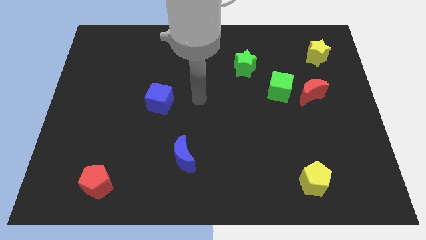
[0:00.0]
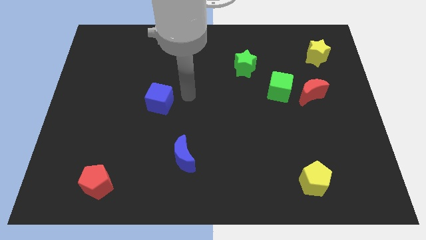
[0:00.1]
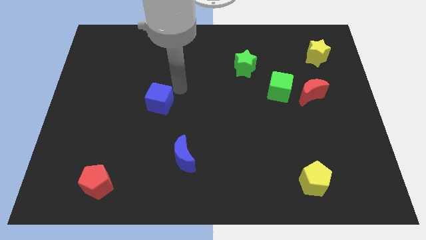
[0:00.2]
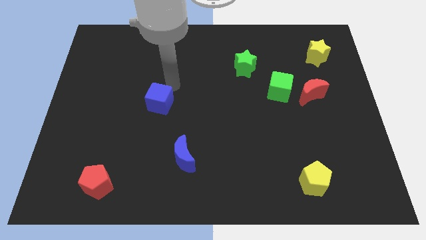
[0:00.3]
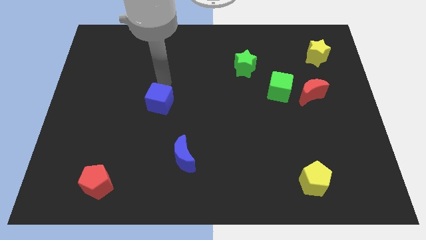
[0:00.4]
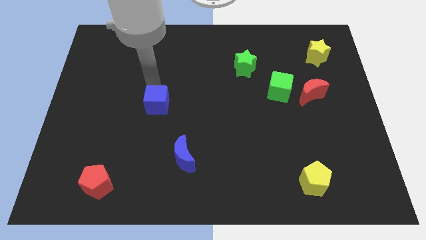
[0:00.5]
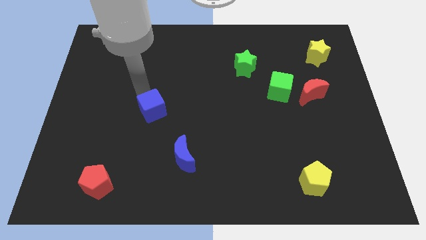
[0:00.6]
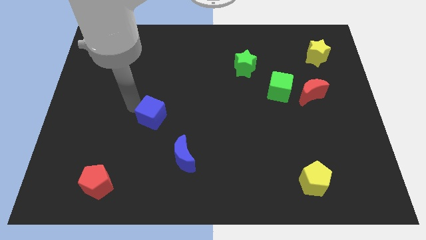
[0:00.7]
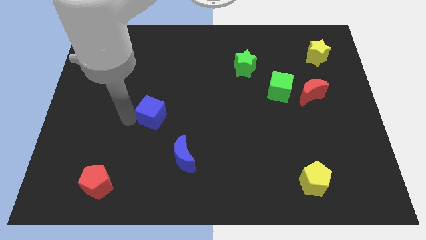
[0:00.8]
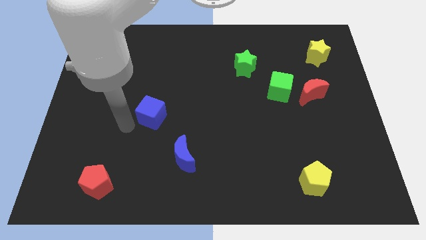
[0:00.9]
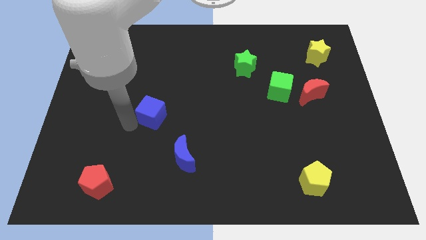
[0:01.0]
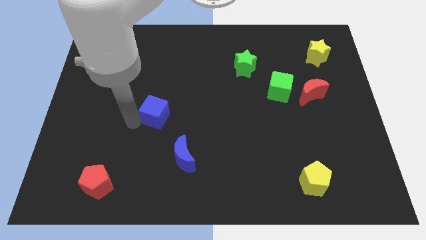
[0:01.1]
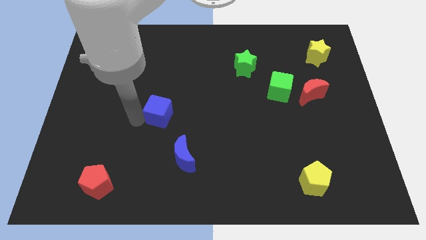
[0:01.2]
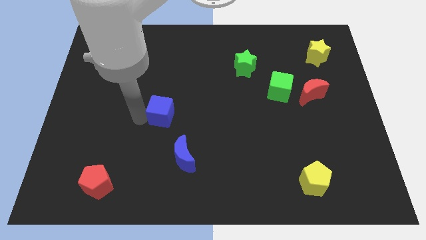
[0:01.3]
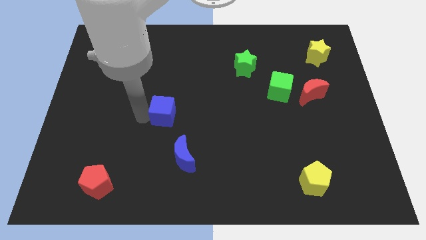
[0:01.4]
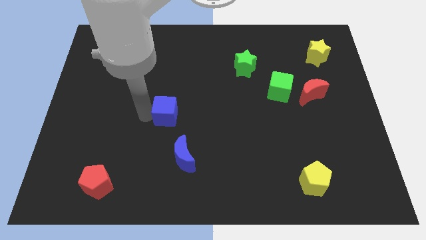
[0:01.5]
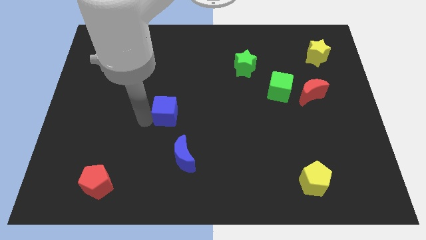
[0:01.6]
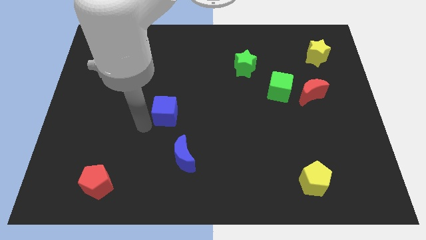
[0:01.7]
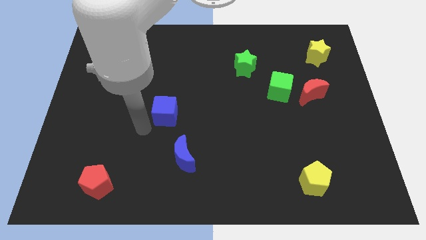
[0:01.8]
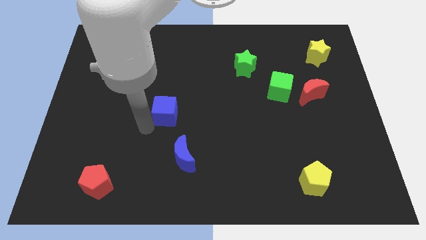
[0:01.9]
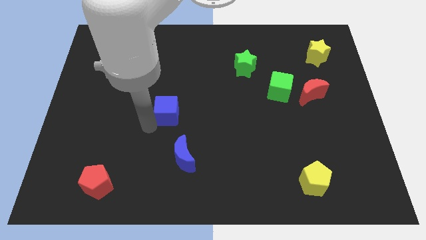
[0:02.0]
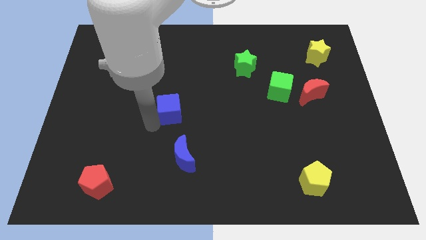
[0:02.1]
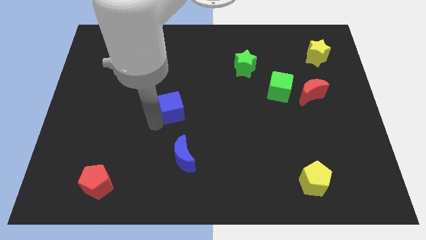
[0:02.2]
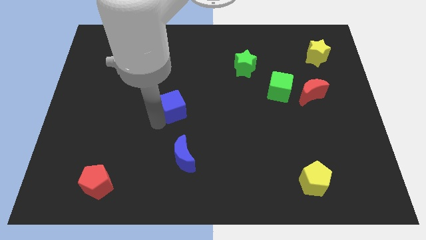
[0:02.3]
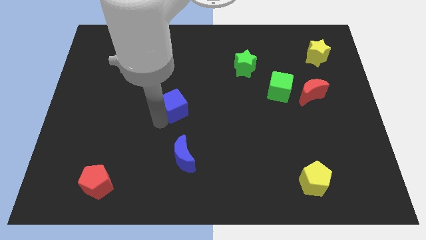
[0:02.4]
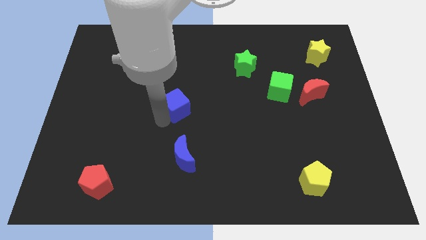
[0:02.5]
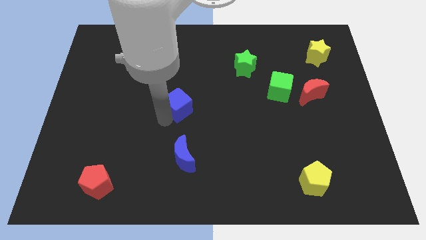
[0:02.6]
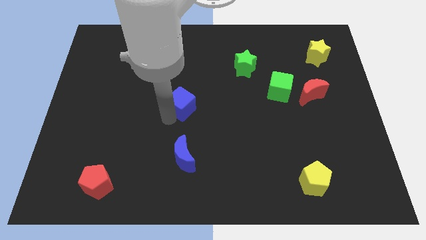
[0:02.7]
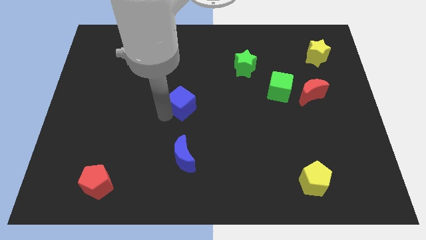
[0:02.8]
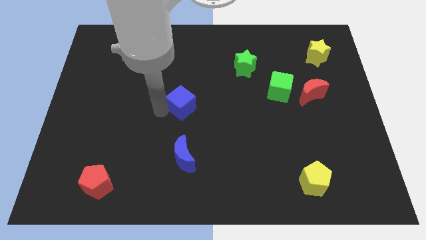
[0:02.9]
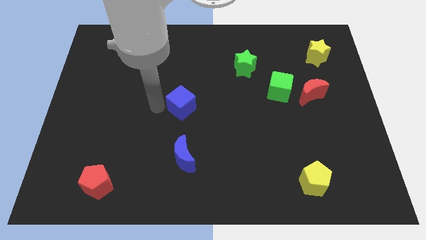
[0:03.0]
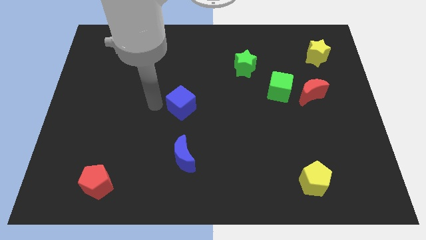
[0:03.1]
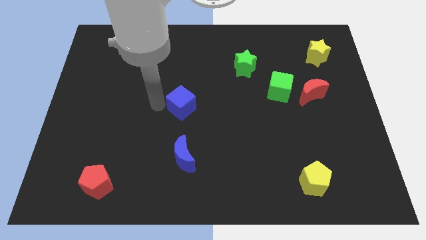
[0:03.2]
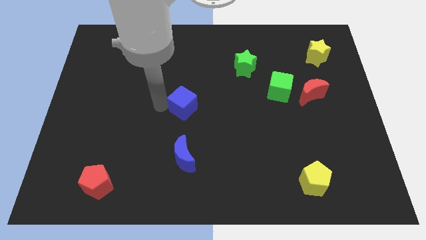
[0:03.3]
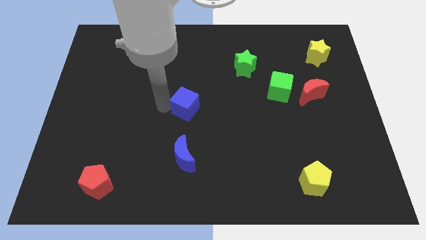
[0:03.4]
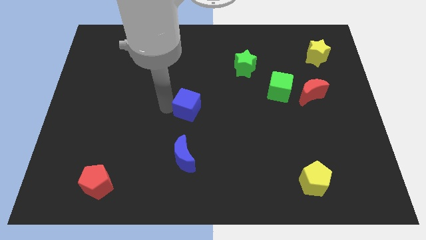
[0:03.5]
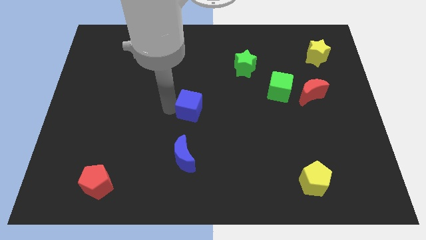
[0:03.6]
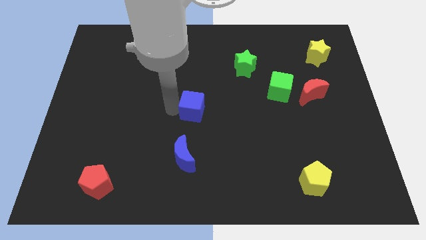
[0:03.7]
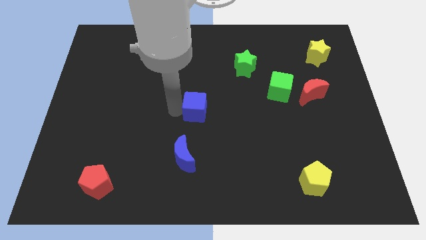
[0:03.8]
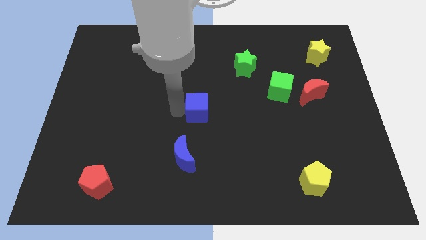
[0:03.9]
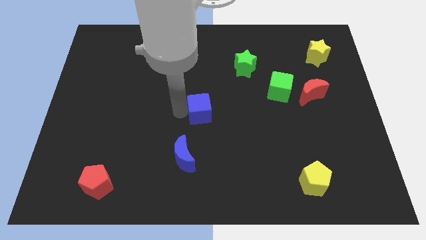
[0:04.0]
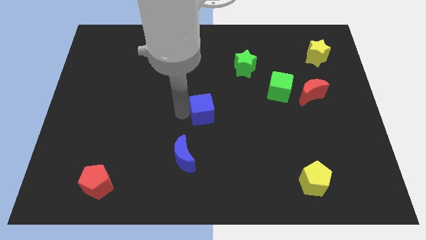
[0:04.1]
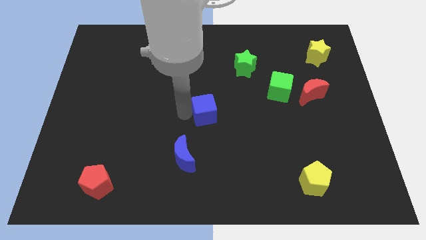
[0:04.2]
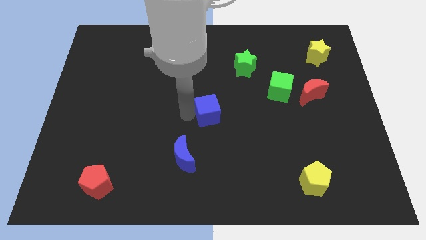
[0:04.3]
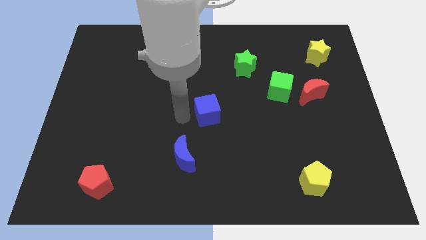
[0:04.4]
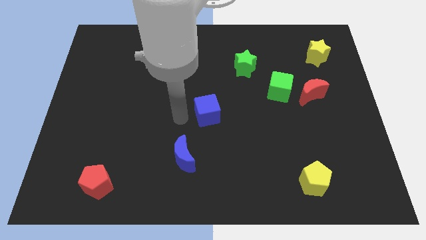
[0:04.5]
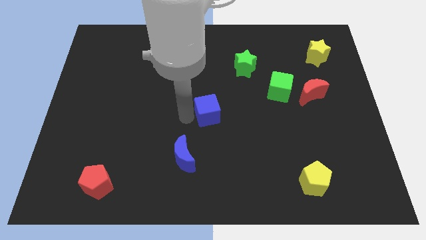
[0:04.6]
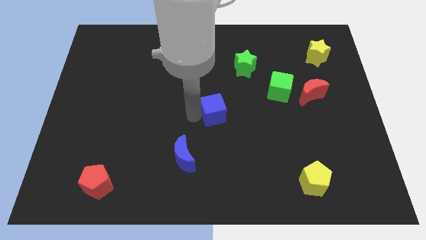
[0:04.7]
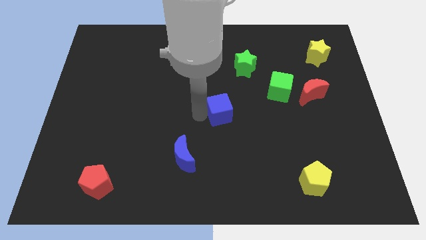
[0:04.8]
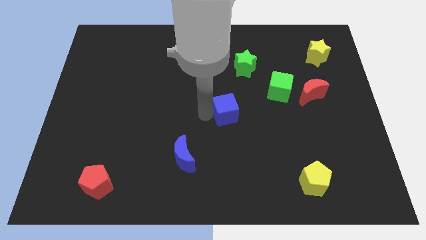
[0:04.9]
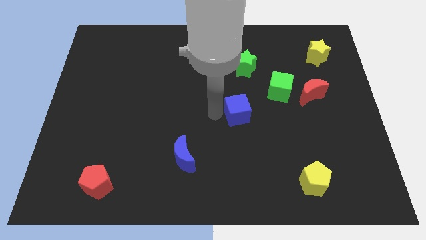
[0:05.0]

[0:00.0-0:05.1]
slide the blue cube to the bottom left of the green cube

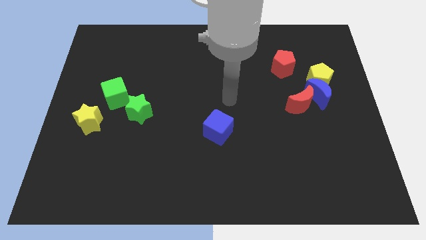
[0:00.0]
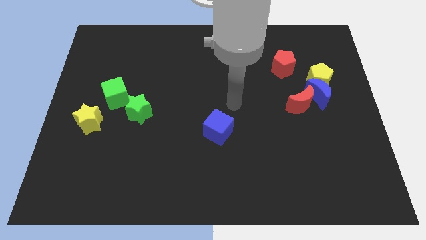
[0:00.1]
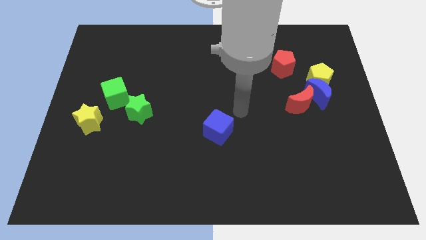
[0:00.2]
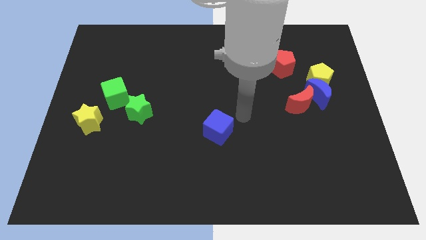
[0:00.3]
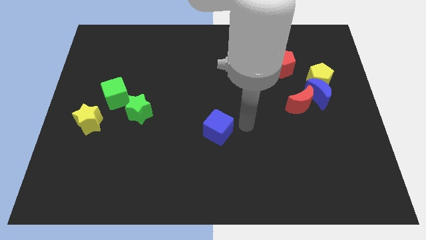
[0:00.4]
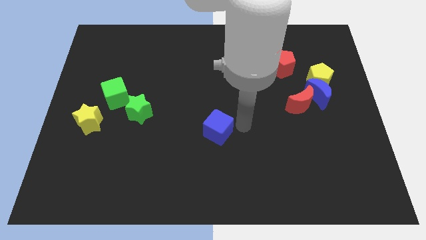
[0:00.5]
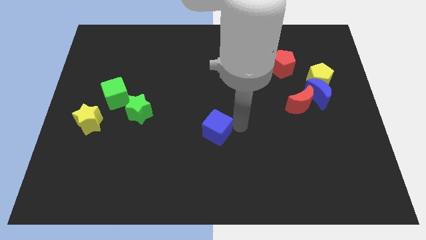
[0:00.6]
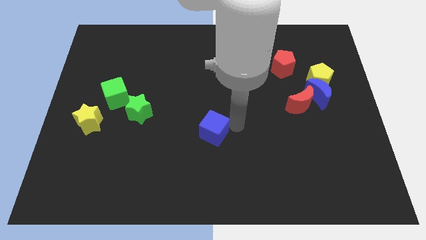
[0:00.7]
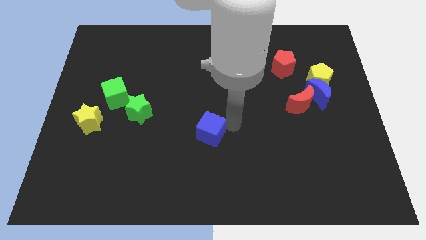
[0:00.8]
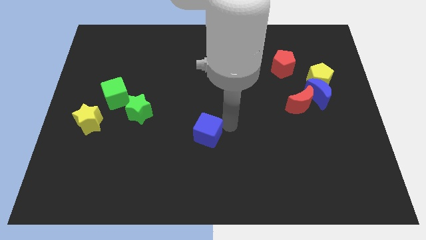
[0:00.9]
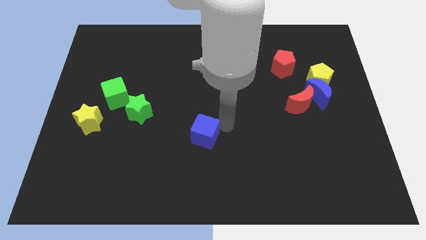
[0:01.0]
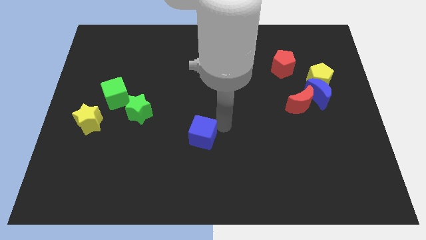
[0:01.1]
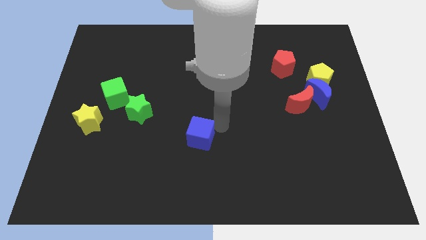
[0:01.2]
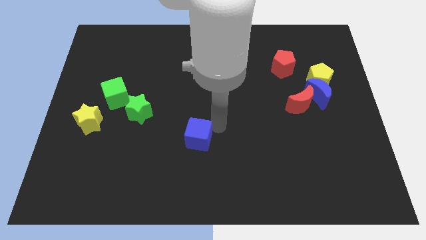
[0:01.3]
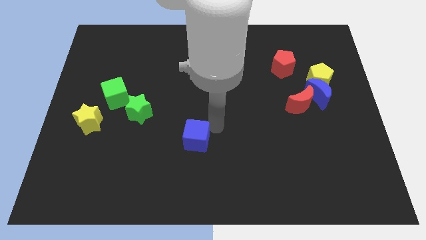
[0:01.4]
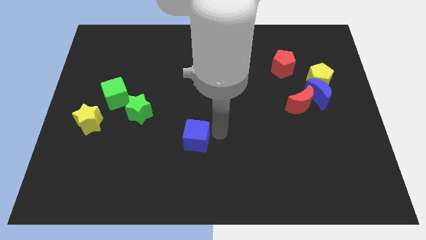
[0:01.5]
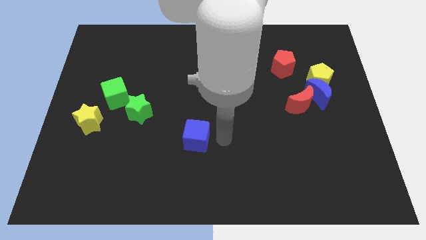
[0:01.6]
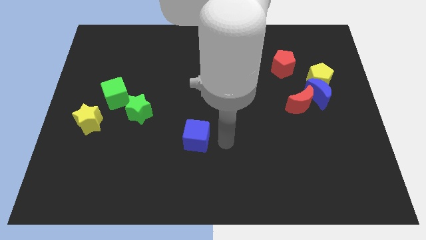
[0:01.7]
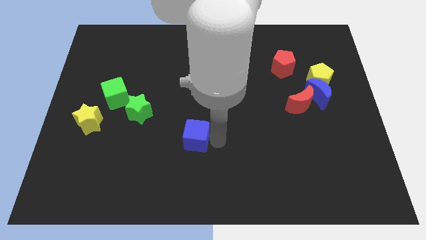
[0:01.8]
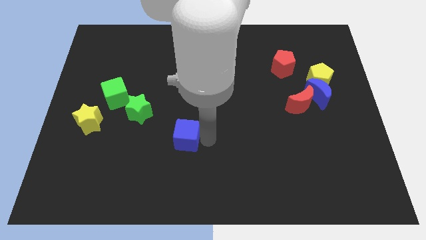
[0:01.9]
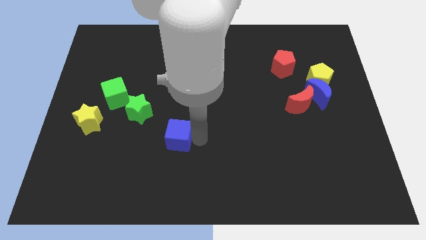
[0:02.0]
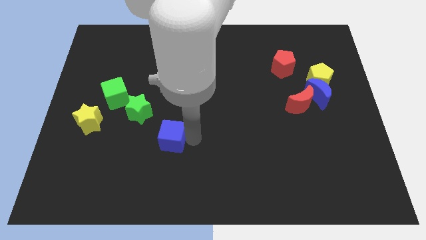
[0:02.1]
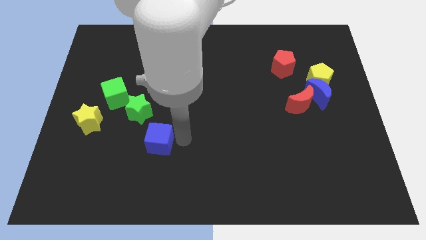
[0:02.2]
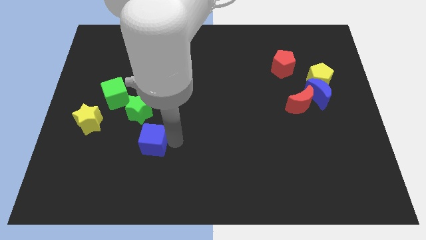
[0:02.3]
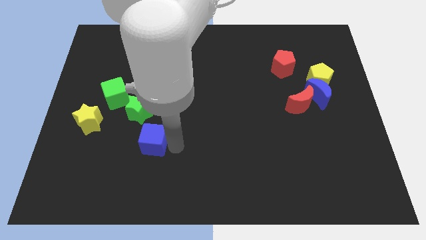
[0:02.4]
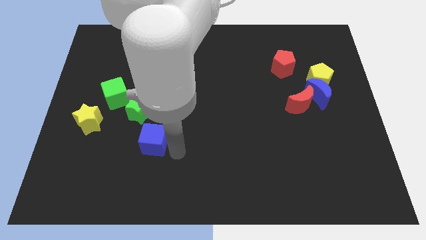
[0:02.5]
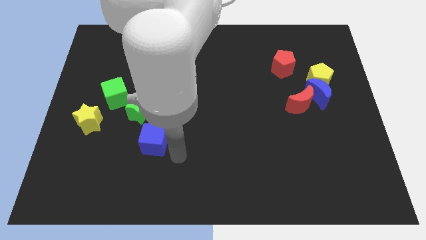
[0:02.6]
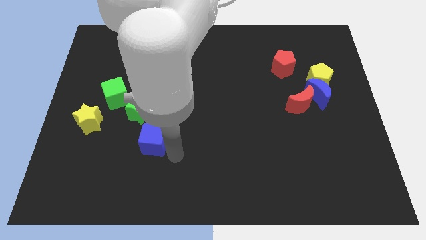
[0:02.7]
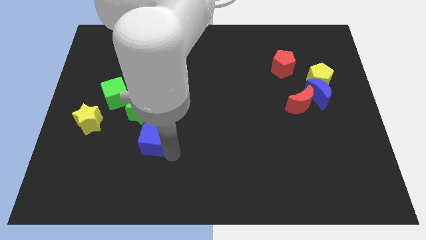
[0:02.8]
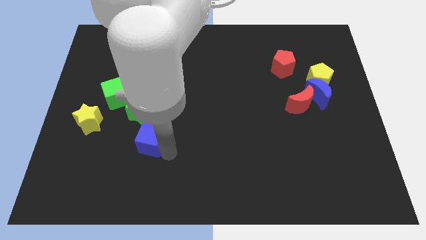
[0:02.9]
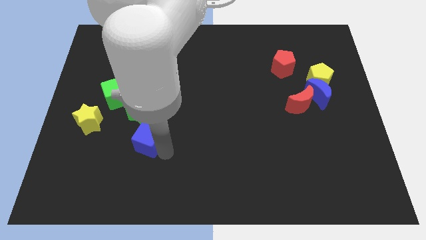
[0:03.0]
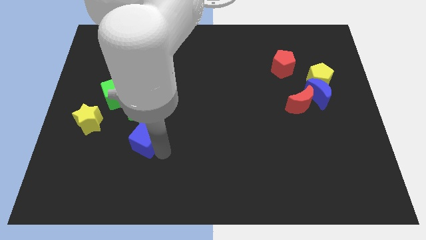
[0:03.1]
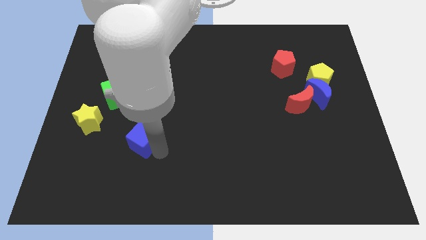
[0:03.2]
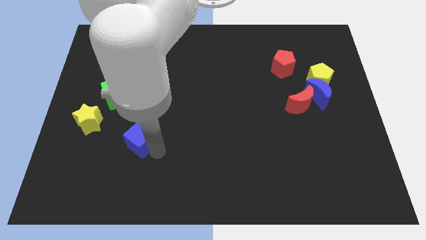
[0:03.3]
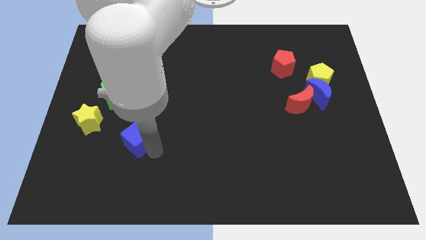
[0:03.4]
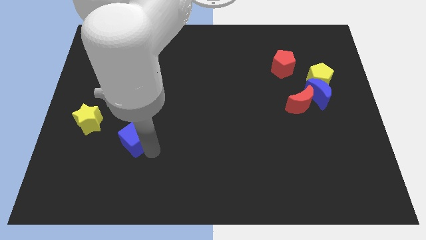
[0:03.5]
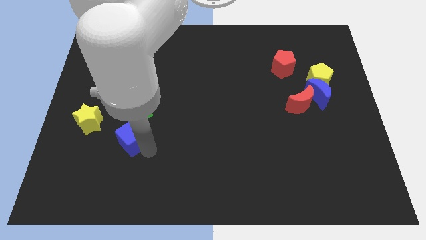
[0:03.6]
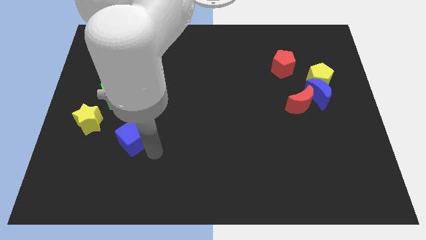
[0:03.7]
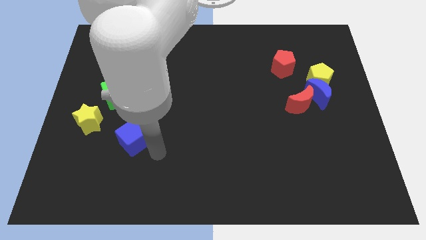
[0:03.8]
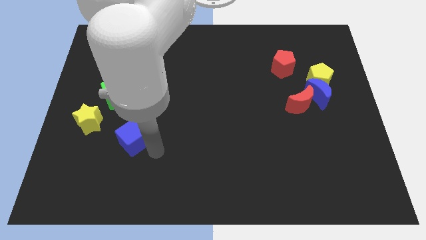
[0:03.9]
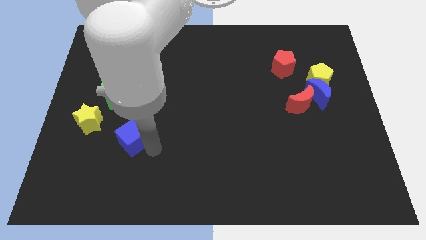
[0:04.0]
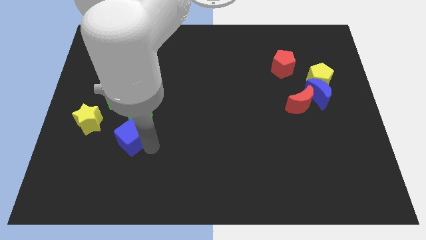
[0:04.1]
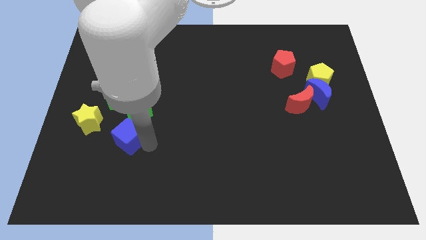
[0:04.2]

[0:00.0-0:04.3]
push the blue cube diagonally down and to the left of the green star
